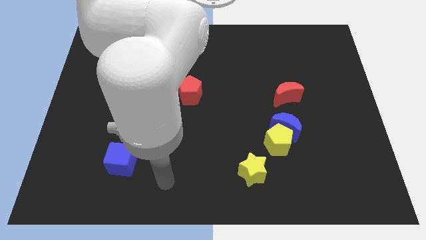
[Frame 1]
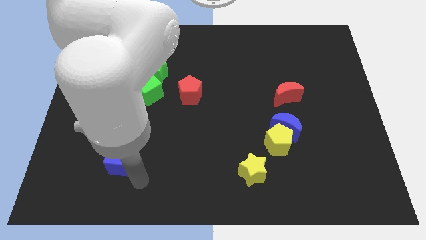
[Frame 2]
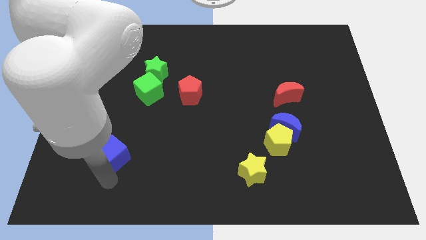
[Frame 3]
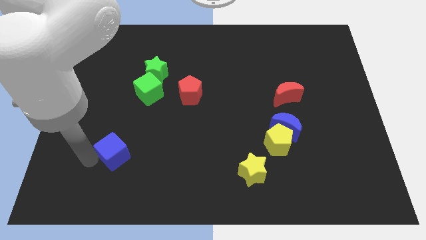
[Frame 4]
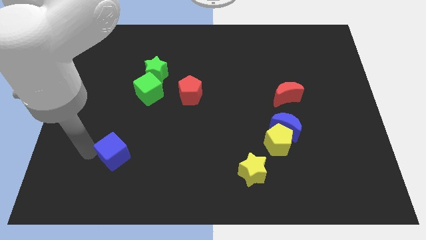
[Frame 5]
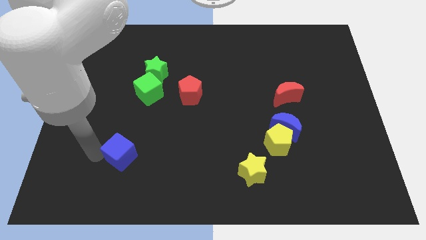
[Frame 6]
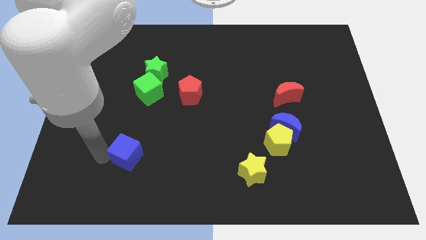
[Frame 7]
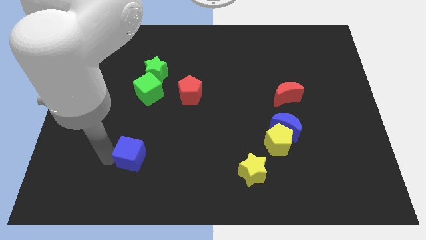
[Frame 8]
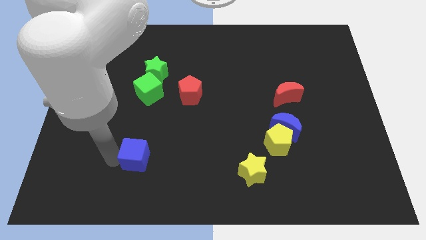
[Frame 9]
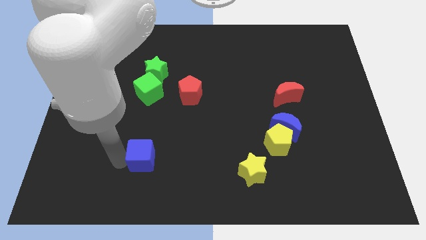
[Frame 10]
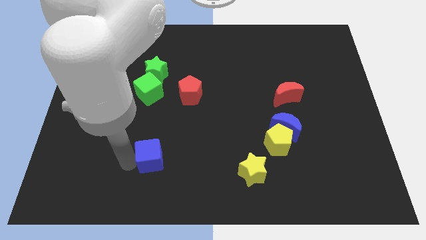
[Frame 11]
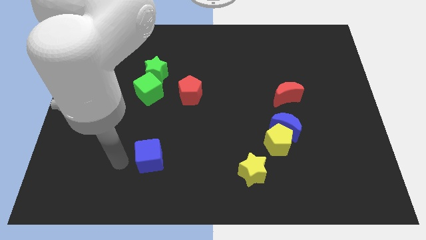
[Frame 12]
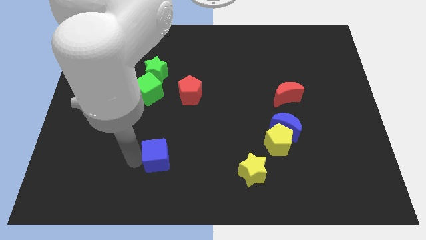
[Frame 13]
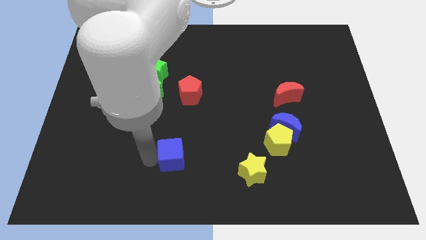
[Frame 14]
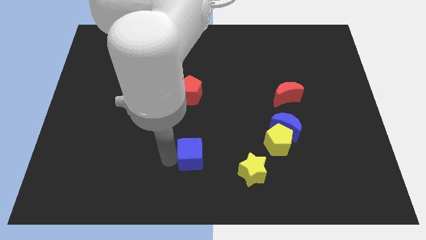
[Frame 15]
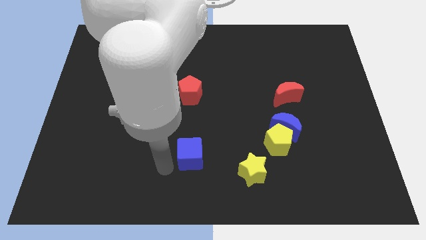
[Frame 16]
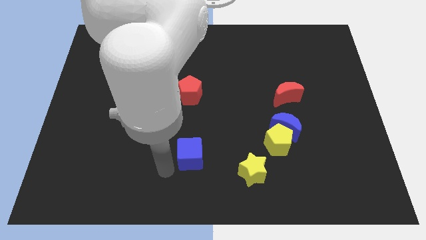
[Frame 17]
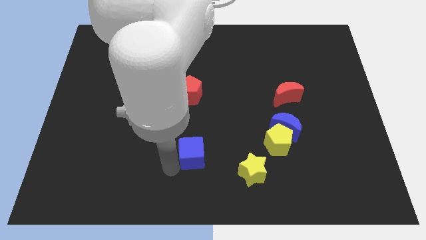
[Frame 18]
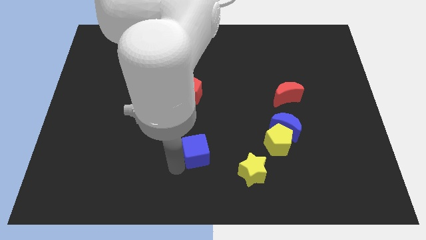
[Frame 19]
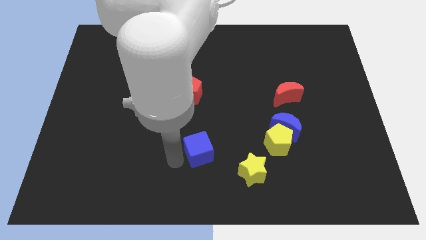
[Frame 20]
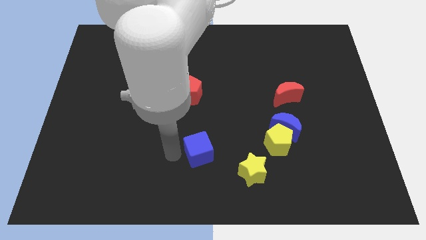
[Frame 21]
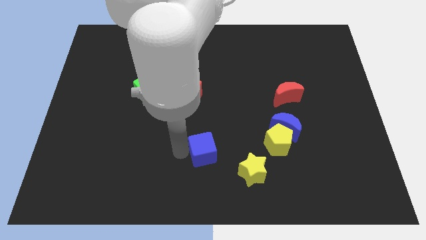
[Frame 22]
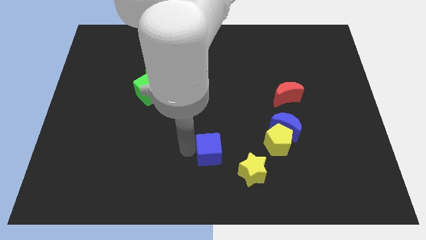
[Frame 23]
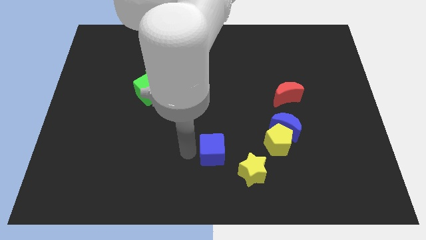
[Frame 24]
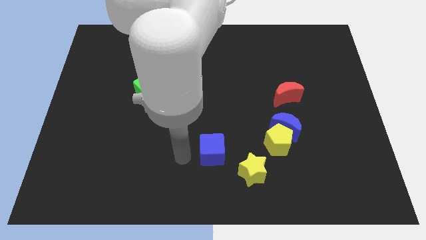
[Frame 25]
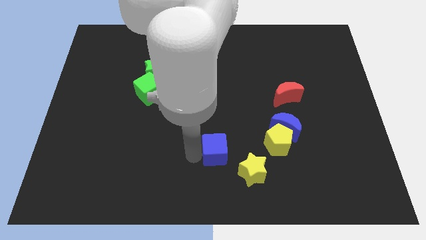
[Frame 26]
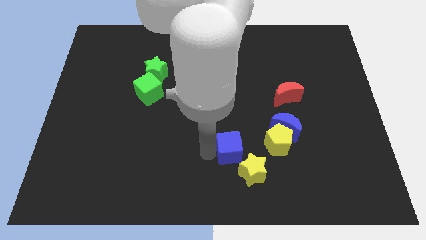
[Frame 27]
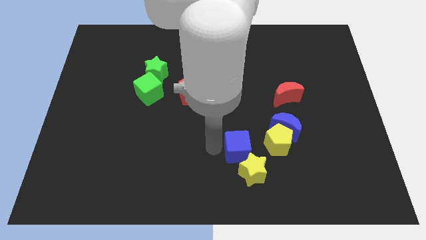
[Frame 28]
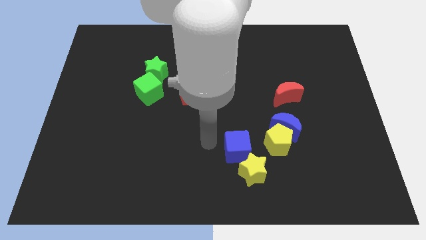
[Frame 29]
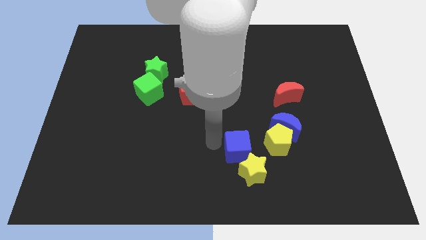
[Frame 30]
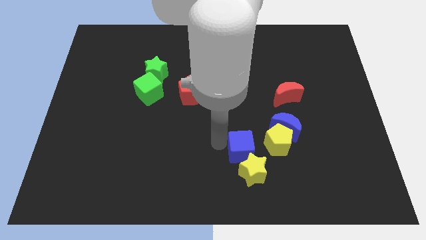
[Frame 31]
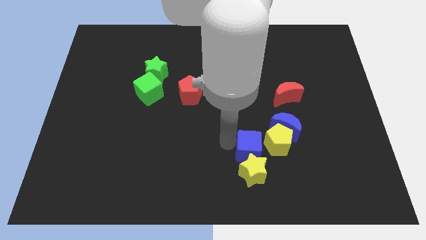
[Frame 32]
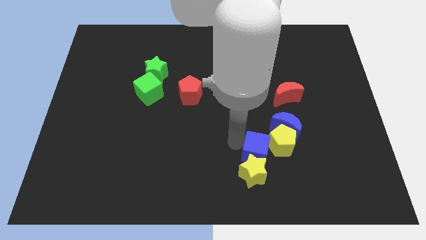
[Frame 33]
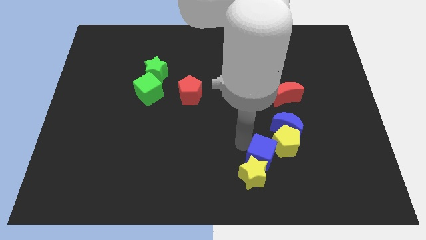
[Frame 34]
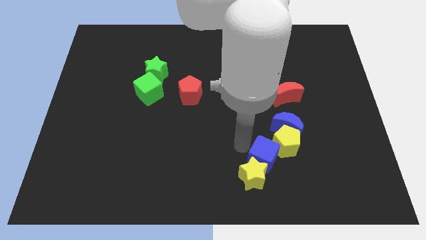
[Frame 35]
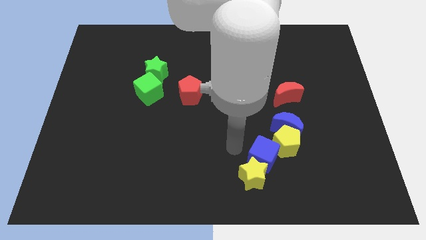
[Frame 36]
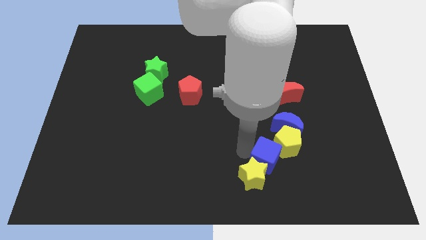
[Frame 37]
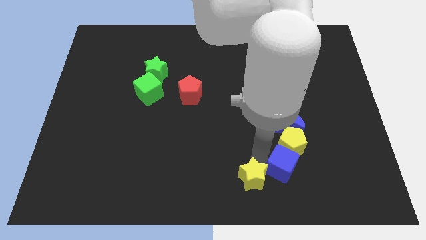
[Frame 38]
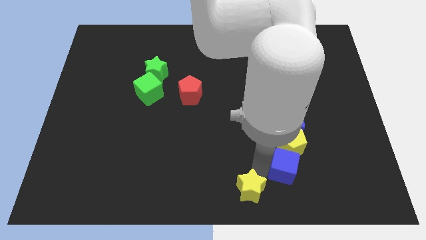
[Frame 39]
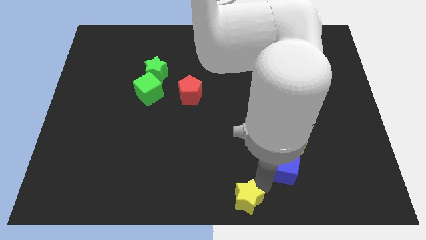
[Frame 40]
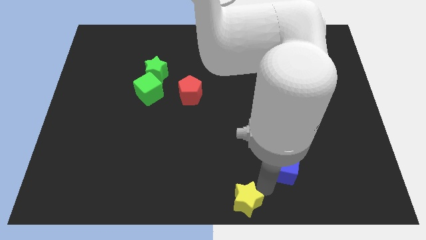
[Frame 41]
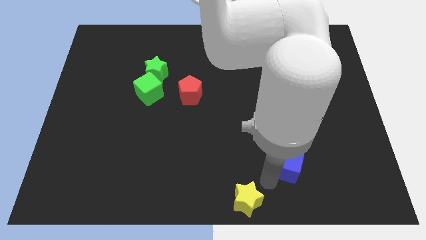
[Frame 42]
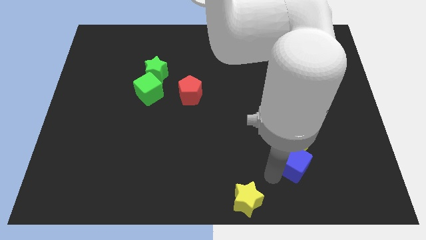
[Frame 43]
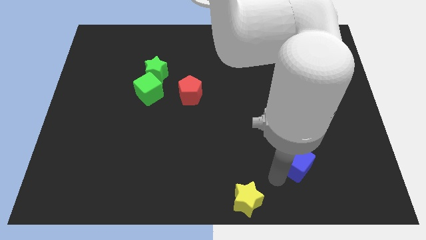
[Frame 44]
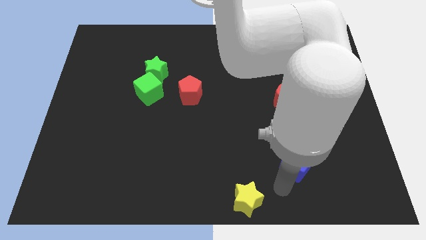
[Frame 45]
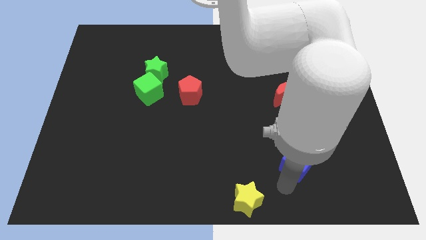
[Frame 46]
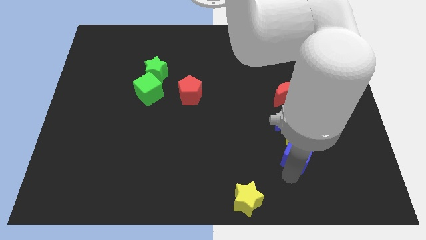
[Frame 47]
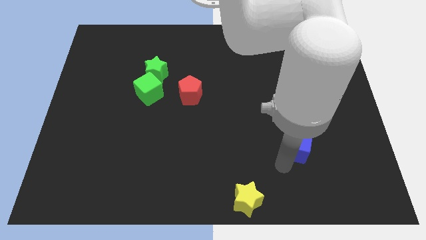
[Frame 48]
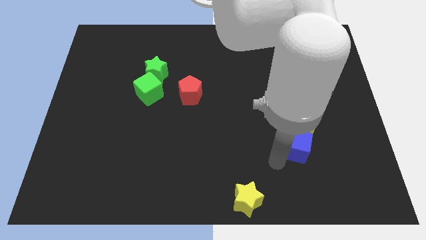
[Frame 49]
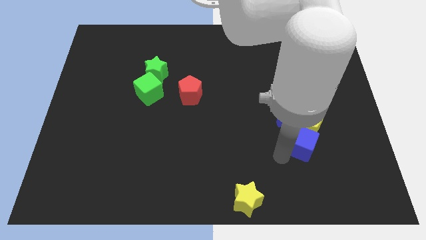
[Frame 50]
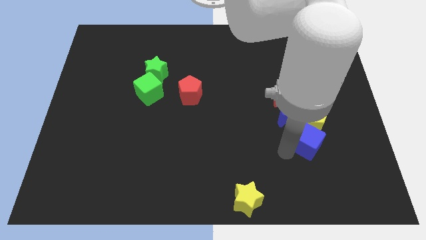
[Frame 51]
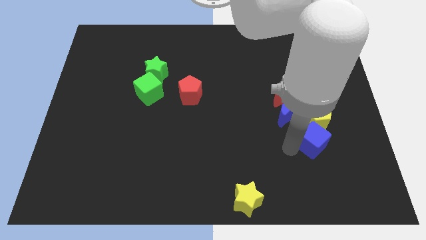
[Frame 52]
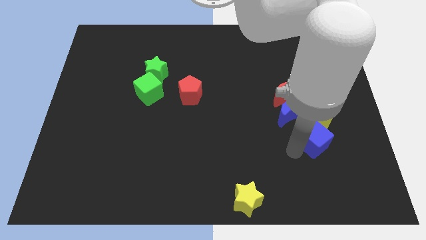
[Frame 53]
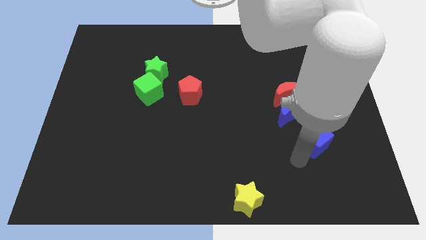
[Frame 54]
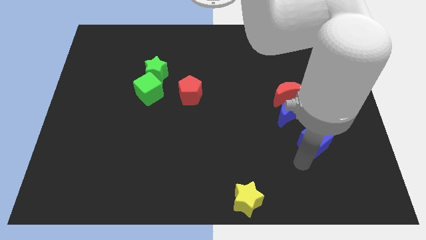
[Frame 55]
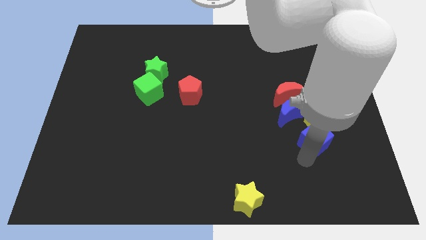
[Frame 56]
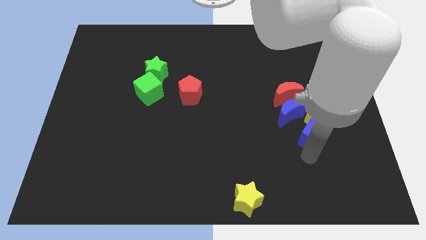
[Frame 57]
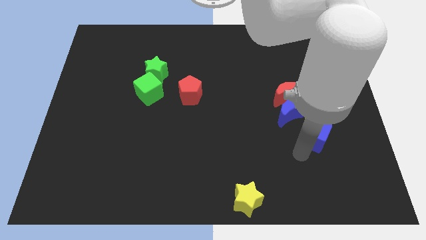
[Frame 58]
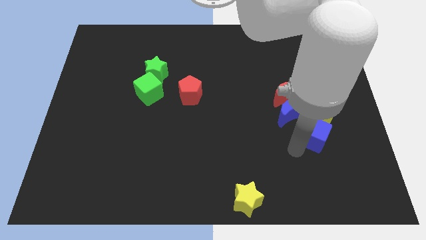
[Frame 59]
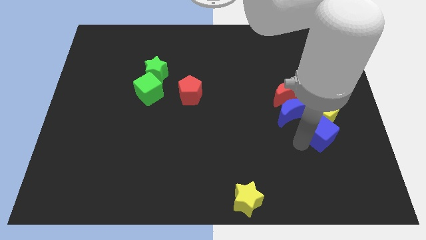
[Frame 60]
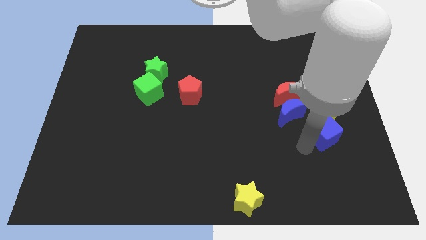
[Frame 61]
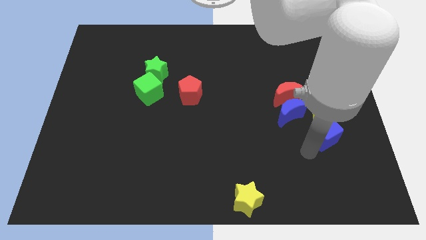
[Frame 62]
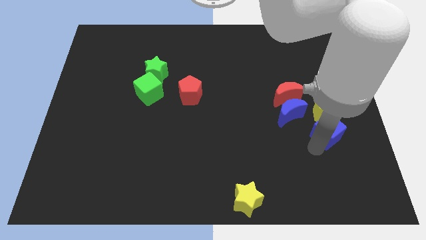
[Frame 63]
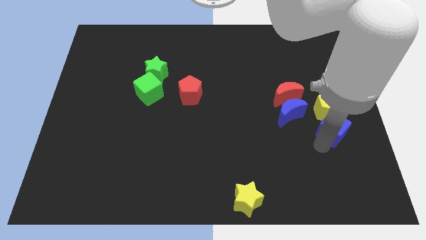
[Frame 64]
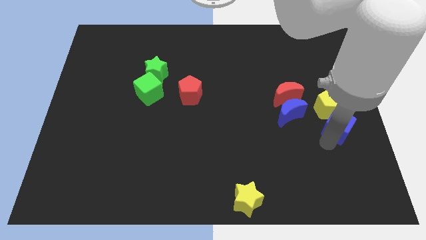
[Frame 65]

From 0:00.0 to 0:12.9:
push the blue cube to the right side of the board
